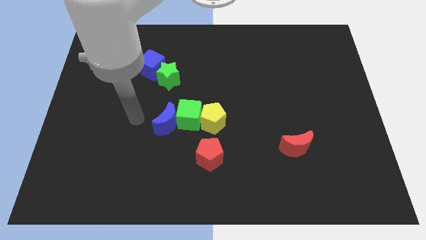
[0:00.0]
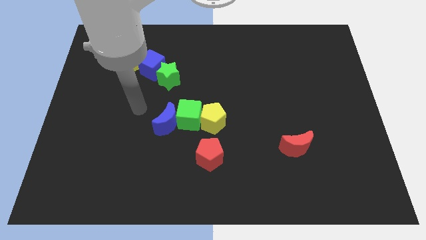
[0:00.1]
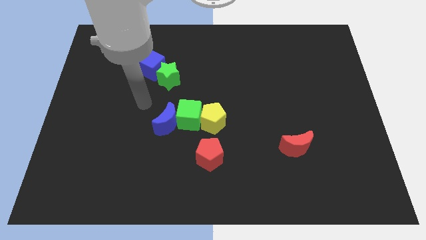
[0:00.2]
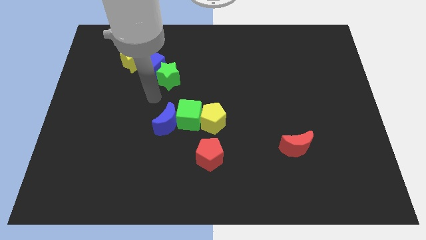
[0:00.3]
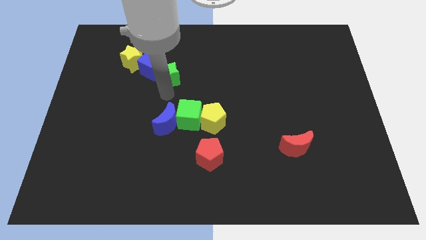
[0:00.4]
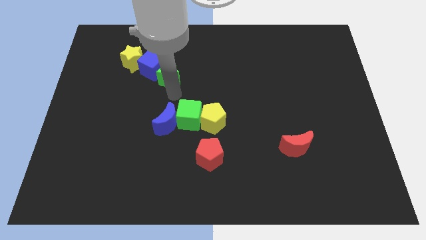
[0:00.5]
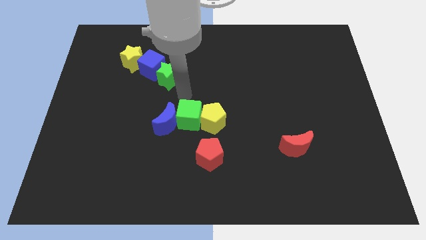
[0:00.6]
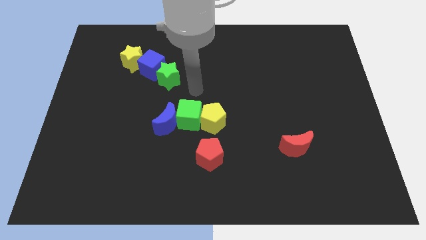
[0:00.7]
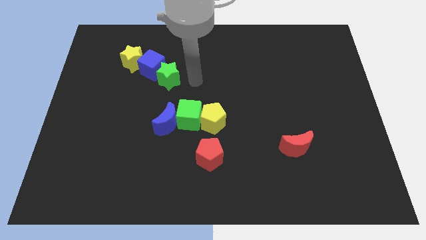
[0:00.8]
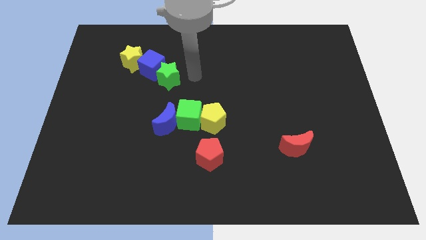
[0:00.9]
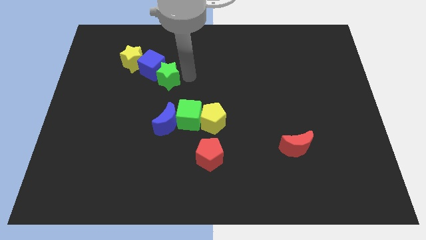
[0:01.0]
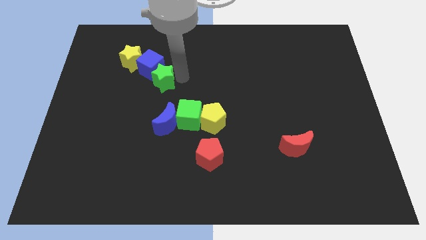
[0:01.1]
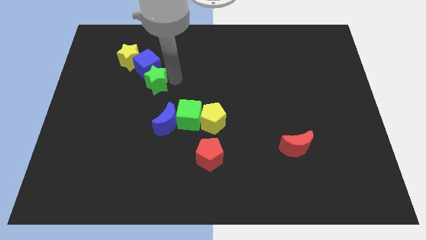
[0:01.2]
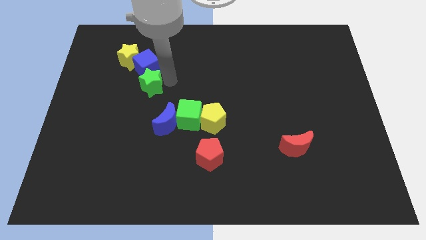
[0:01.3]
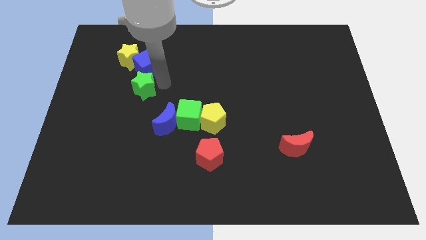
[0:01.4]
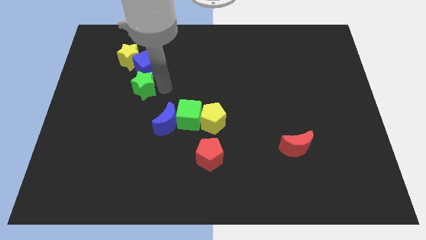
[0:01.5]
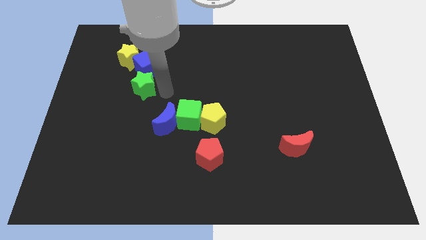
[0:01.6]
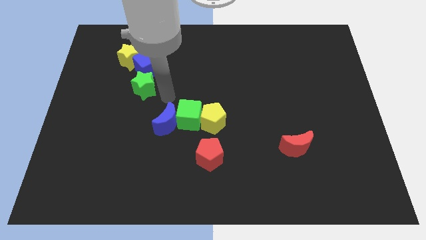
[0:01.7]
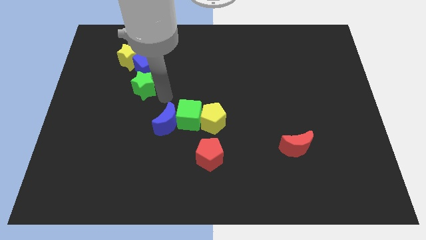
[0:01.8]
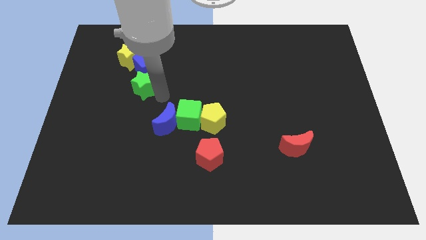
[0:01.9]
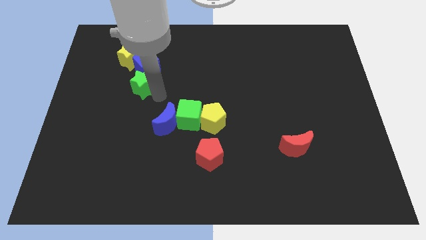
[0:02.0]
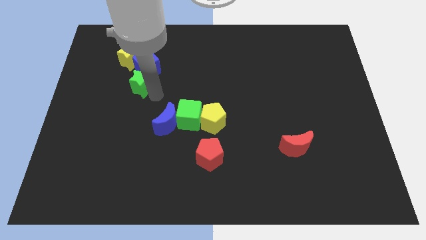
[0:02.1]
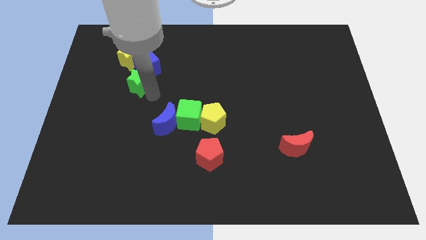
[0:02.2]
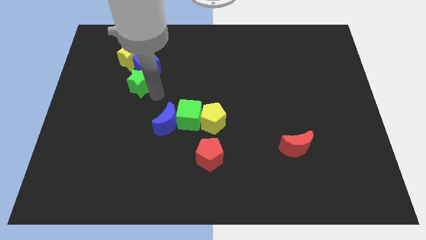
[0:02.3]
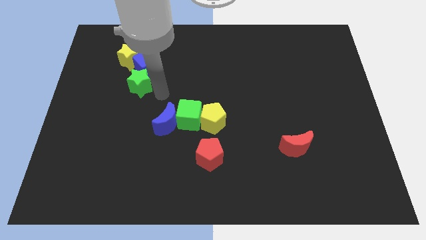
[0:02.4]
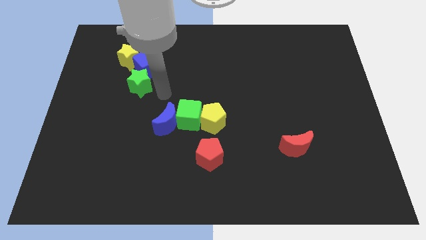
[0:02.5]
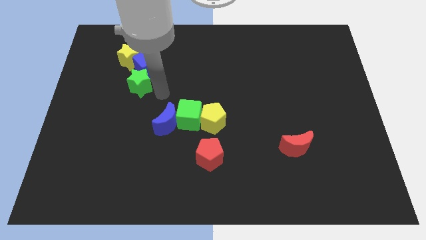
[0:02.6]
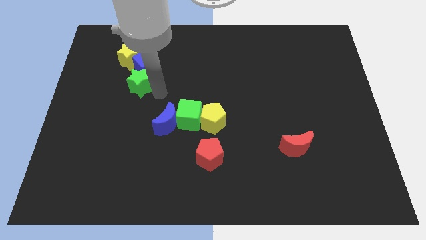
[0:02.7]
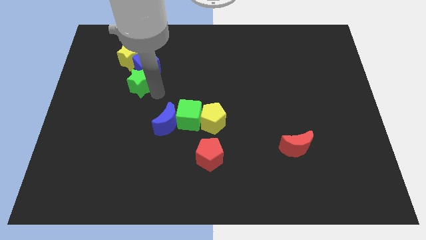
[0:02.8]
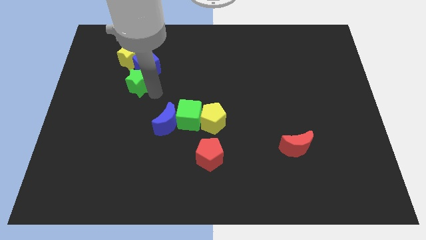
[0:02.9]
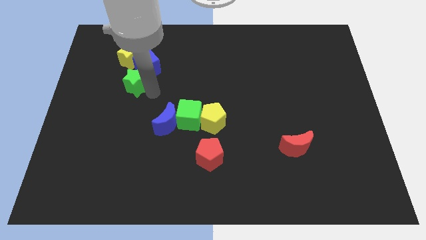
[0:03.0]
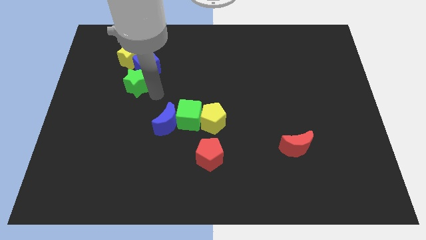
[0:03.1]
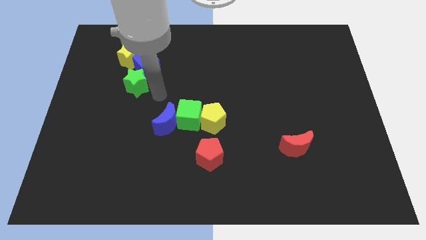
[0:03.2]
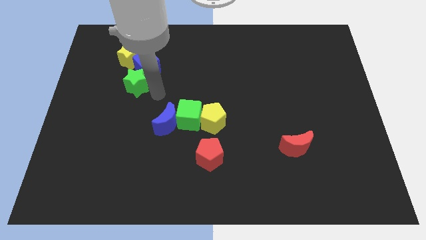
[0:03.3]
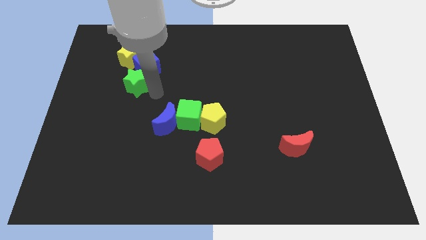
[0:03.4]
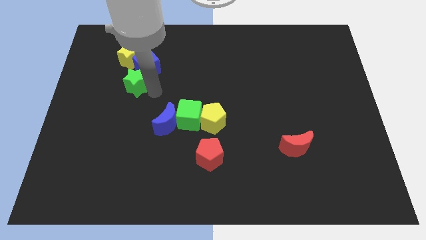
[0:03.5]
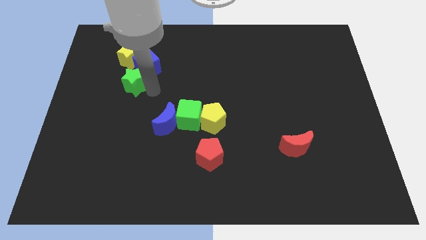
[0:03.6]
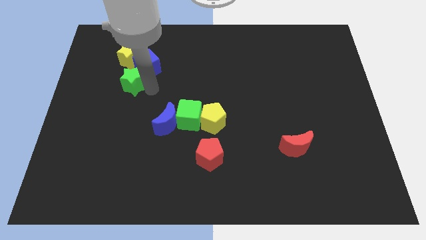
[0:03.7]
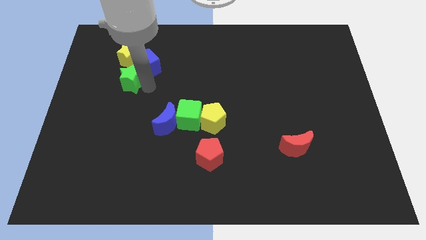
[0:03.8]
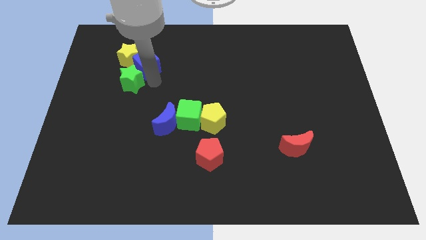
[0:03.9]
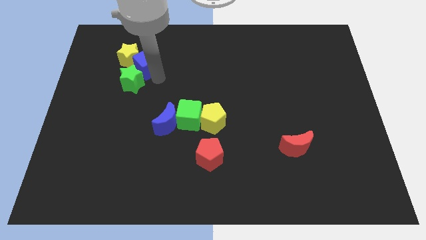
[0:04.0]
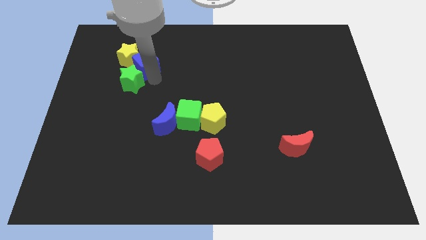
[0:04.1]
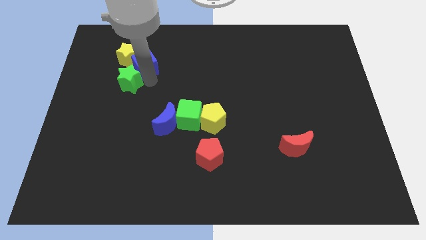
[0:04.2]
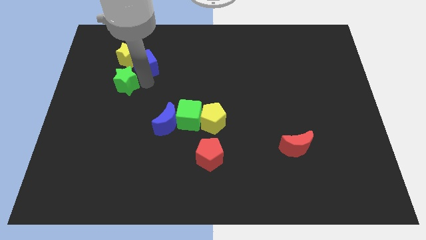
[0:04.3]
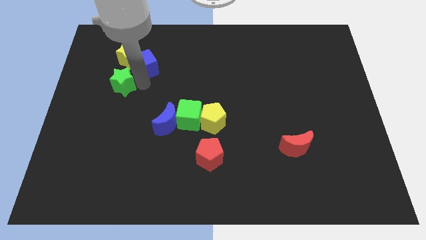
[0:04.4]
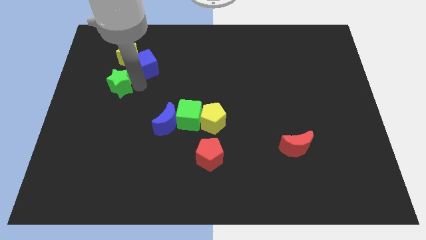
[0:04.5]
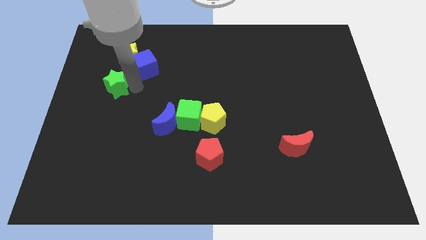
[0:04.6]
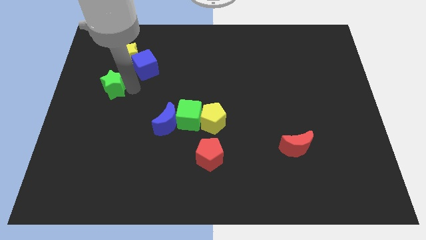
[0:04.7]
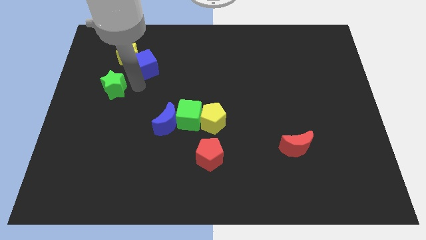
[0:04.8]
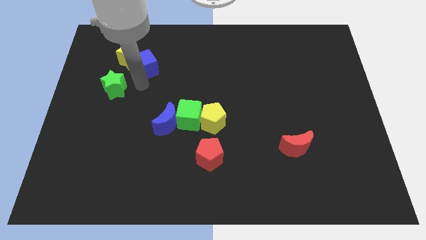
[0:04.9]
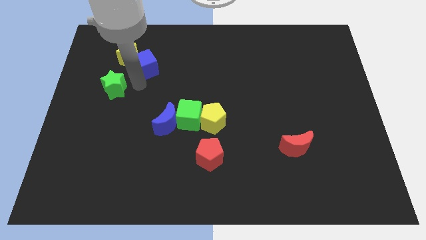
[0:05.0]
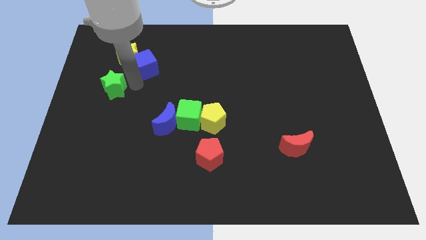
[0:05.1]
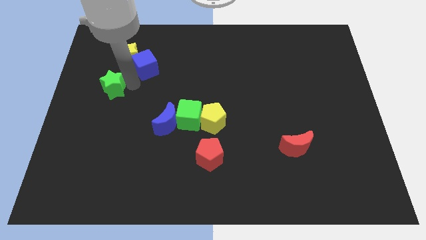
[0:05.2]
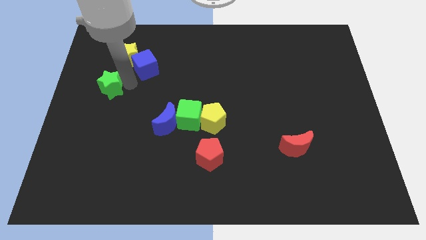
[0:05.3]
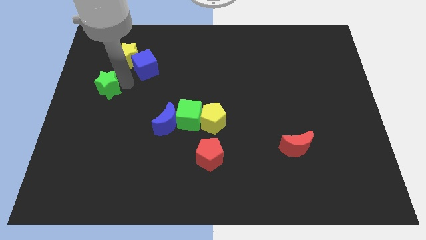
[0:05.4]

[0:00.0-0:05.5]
move the green star to the left side of the board

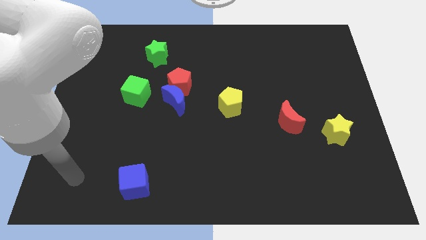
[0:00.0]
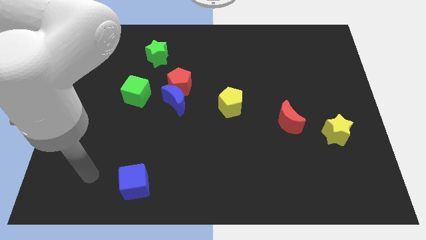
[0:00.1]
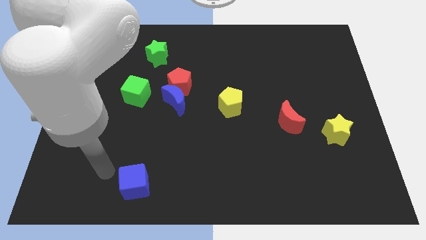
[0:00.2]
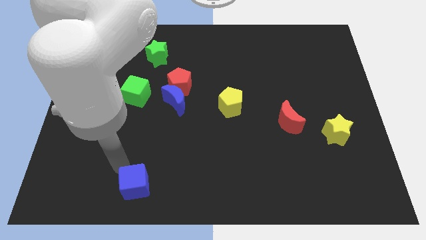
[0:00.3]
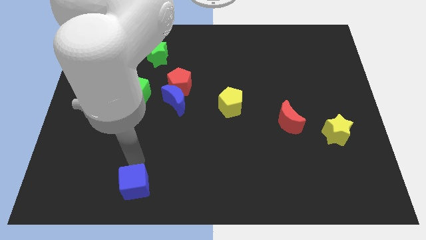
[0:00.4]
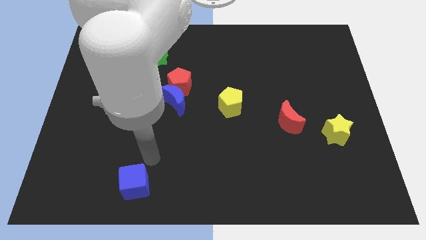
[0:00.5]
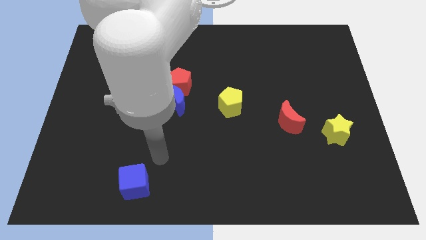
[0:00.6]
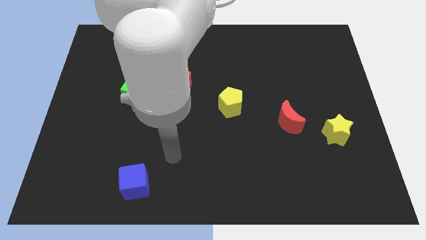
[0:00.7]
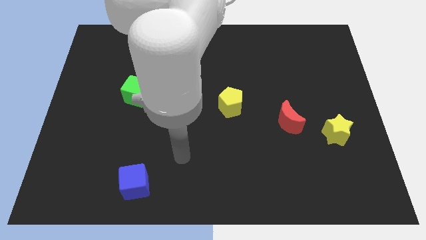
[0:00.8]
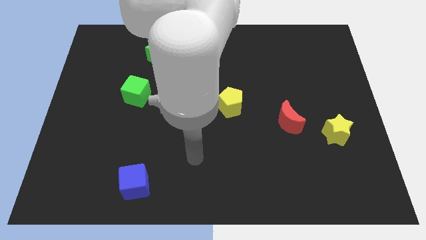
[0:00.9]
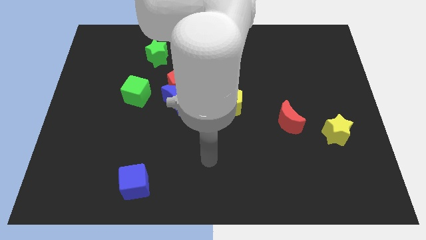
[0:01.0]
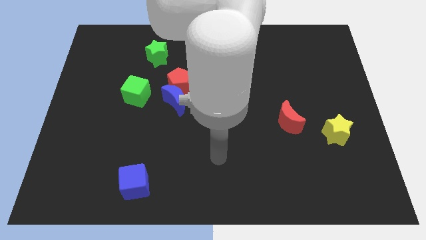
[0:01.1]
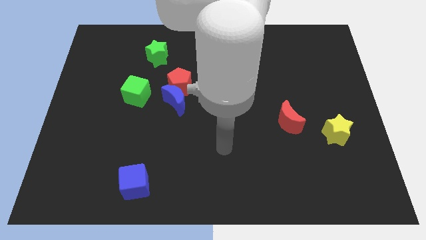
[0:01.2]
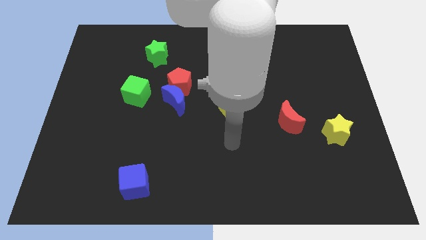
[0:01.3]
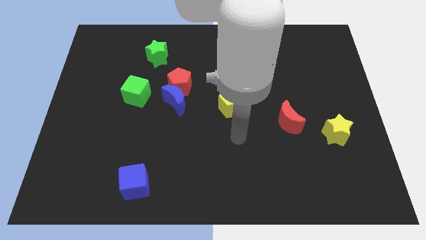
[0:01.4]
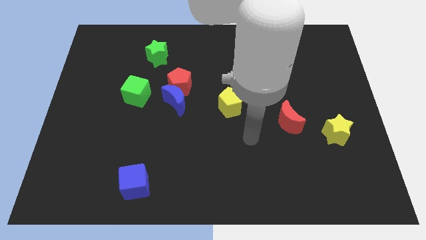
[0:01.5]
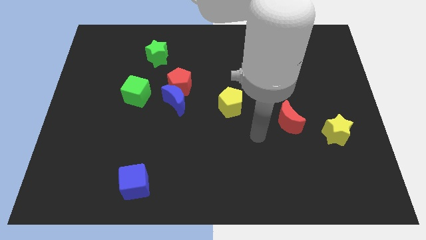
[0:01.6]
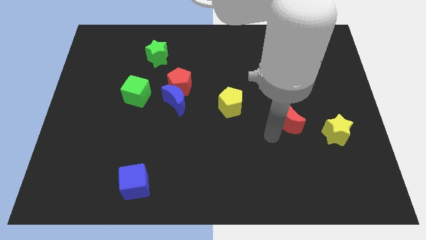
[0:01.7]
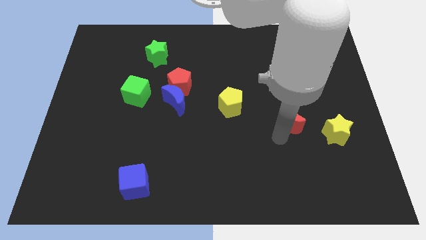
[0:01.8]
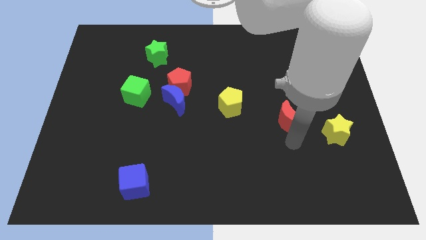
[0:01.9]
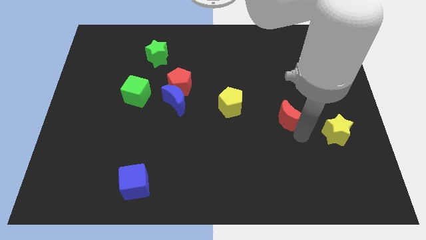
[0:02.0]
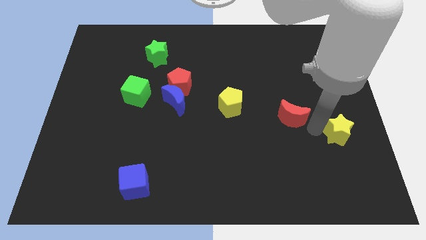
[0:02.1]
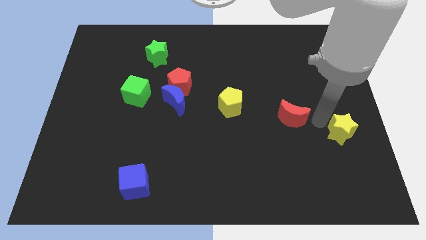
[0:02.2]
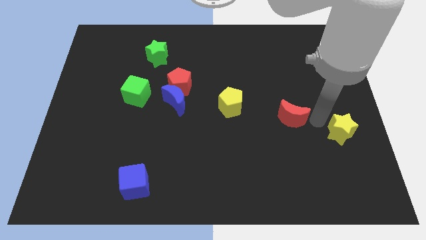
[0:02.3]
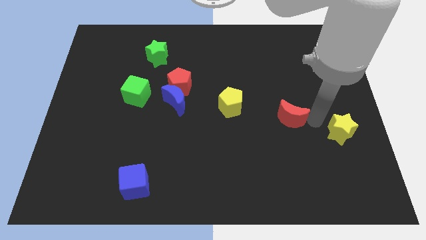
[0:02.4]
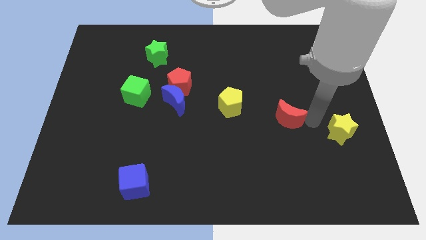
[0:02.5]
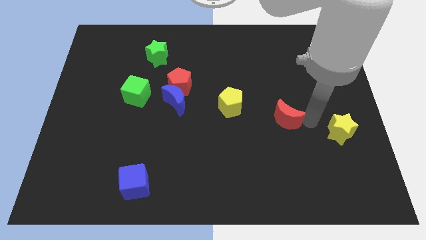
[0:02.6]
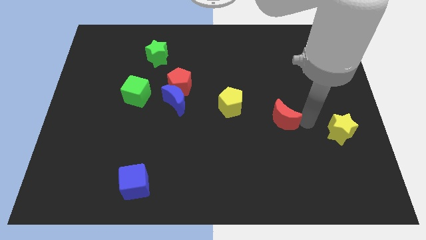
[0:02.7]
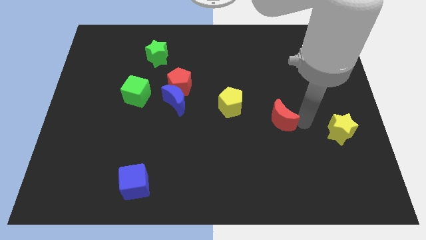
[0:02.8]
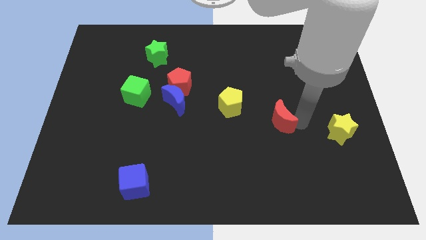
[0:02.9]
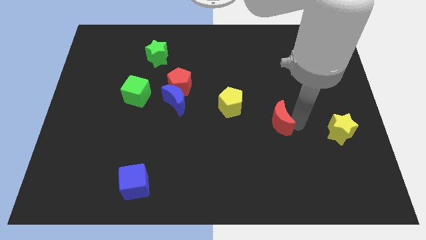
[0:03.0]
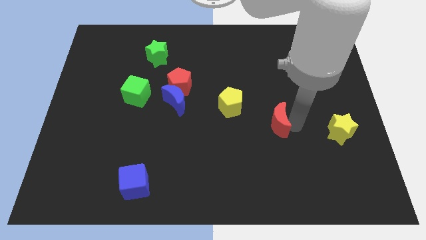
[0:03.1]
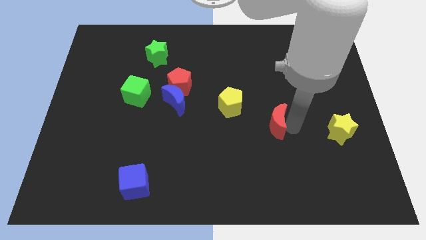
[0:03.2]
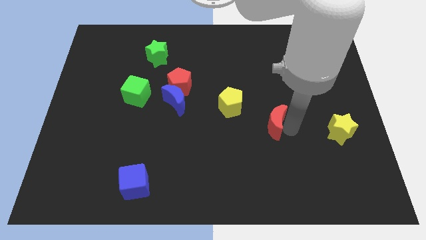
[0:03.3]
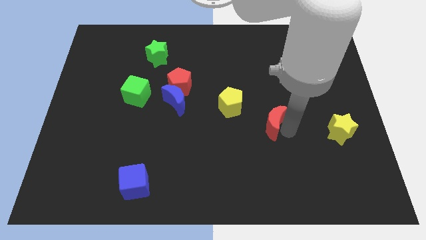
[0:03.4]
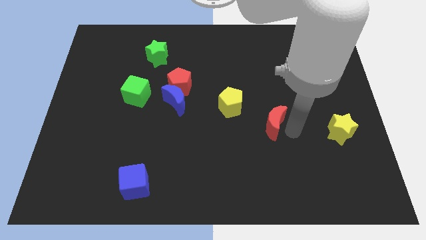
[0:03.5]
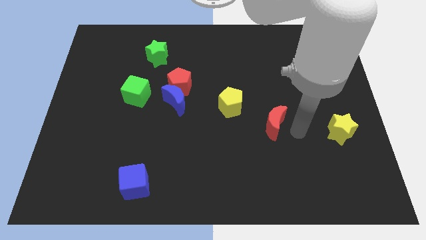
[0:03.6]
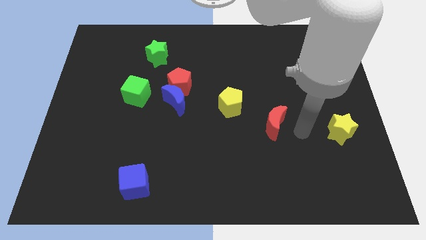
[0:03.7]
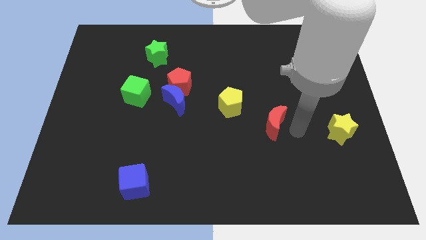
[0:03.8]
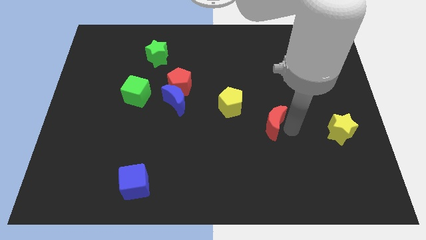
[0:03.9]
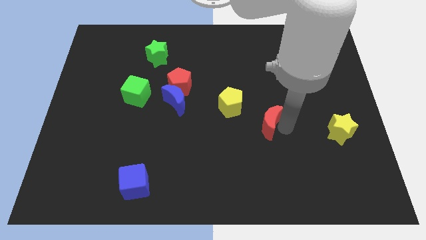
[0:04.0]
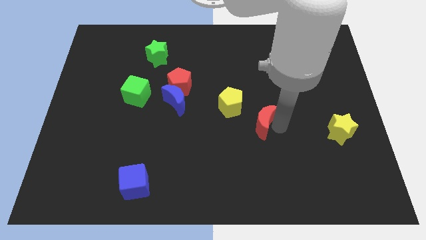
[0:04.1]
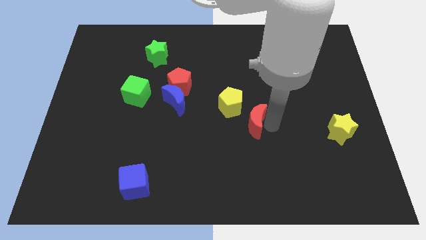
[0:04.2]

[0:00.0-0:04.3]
put the red moon to the center
